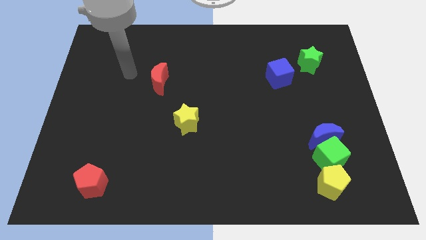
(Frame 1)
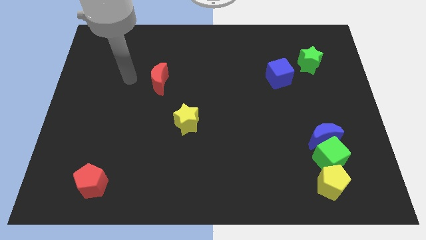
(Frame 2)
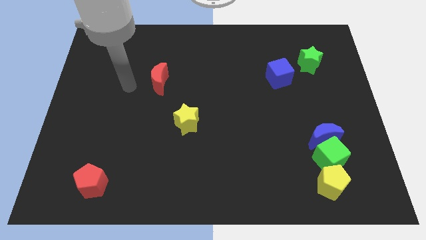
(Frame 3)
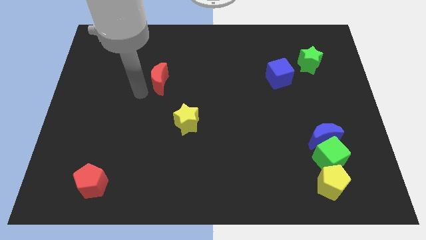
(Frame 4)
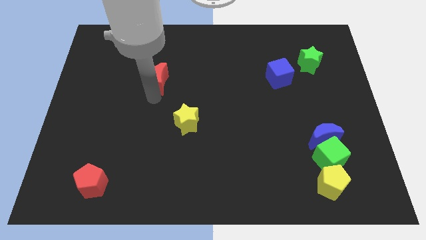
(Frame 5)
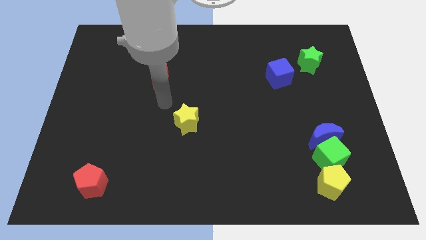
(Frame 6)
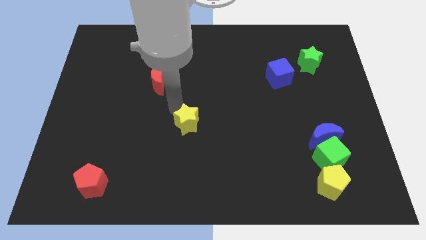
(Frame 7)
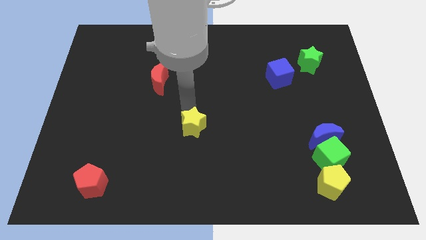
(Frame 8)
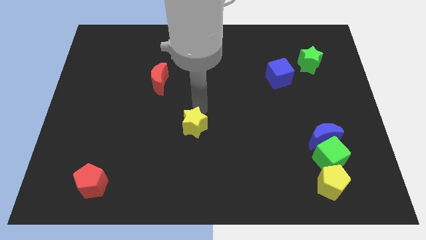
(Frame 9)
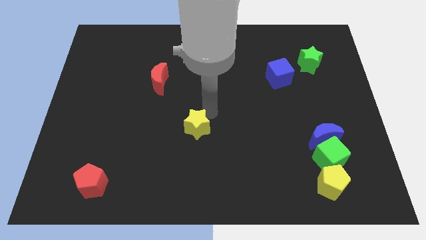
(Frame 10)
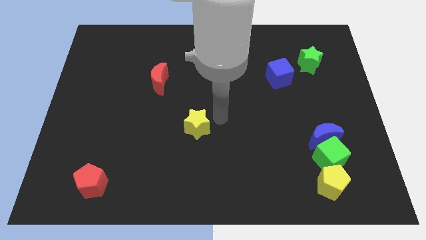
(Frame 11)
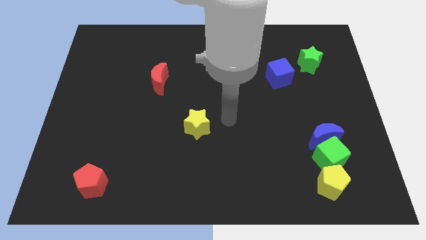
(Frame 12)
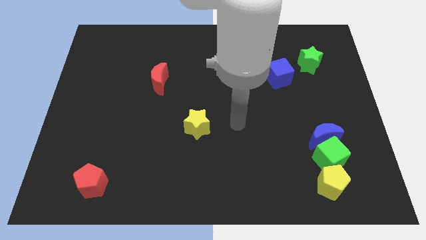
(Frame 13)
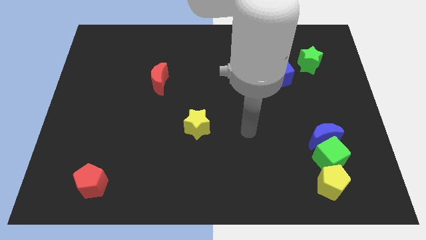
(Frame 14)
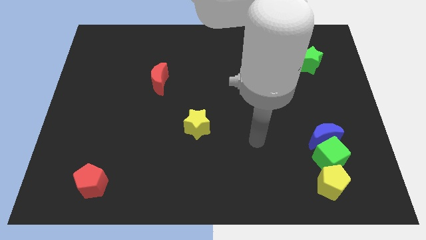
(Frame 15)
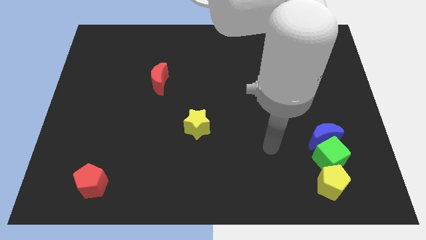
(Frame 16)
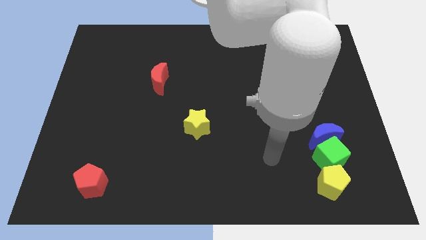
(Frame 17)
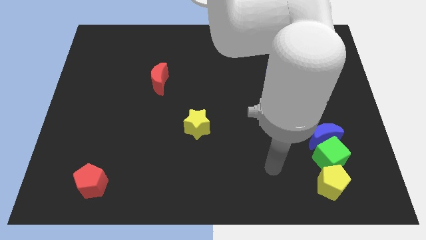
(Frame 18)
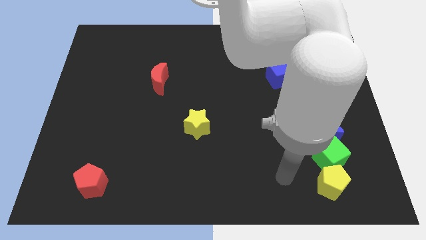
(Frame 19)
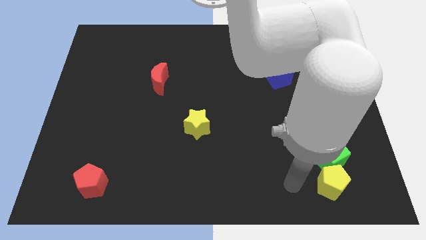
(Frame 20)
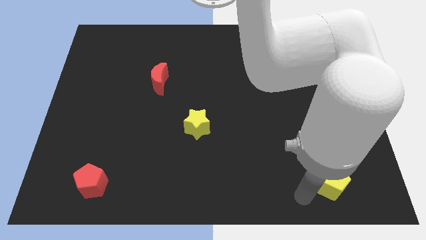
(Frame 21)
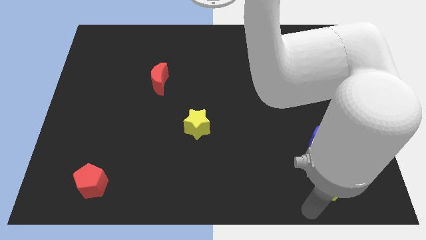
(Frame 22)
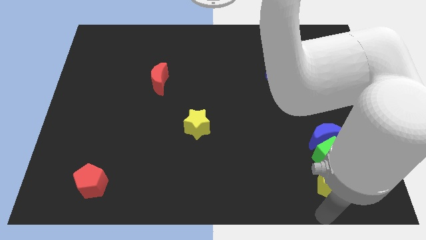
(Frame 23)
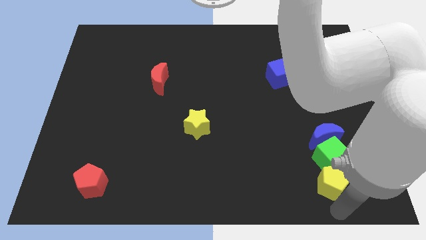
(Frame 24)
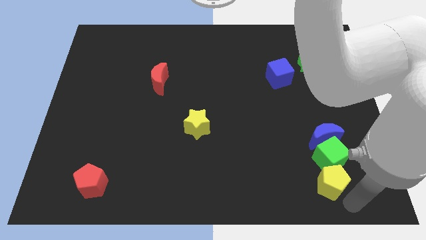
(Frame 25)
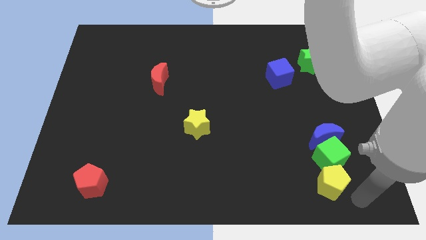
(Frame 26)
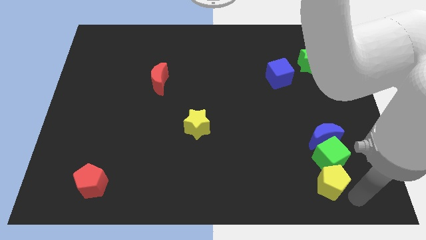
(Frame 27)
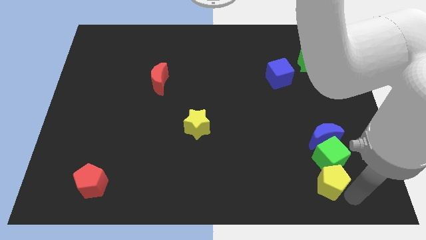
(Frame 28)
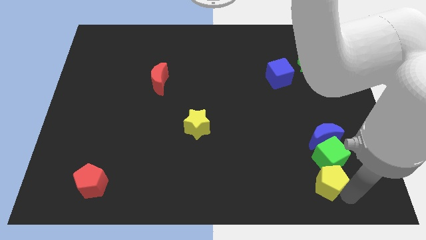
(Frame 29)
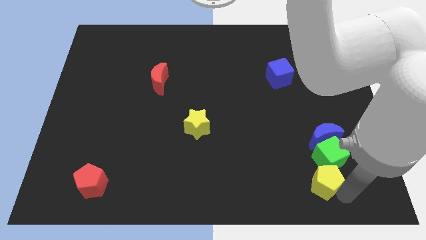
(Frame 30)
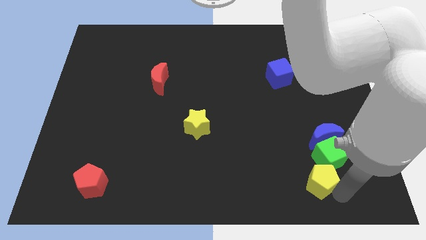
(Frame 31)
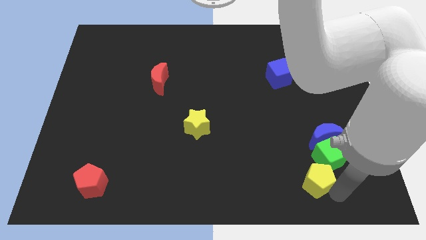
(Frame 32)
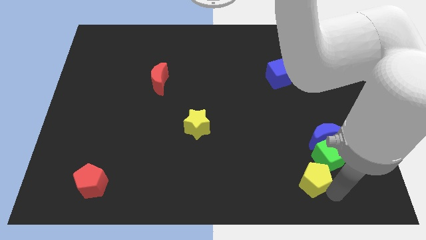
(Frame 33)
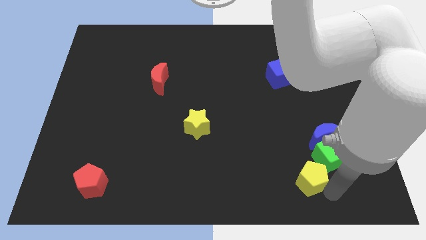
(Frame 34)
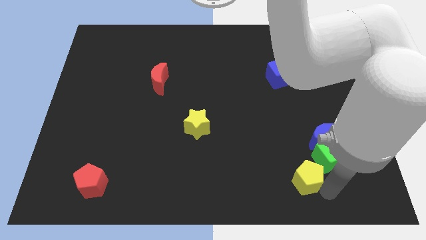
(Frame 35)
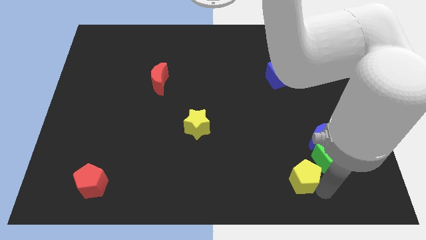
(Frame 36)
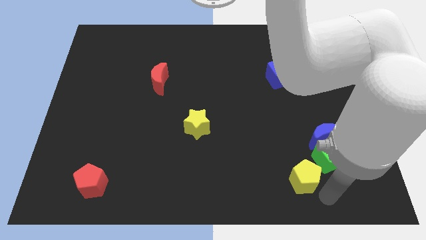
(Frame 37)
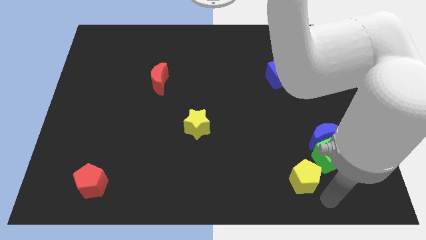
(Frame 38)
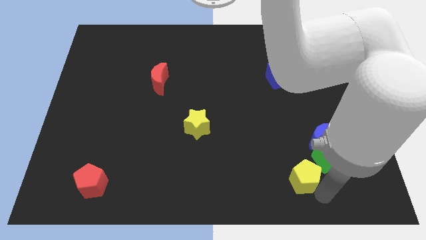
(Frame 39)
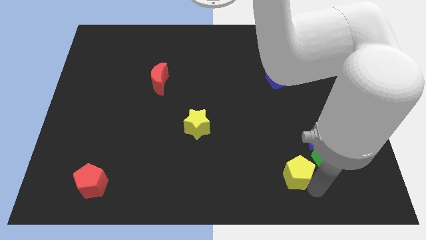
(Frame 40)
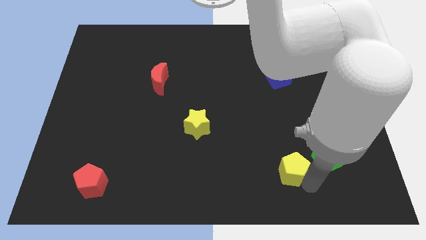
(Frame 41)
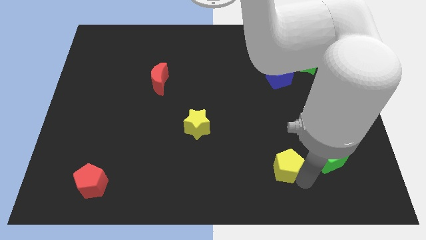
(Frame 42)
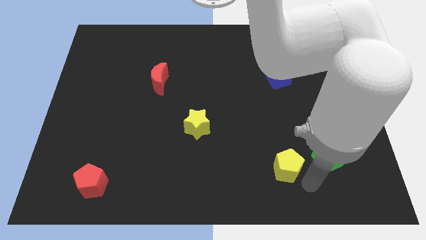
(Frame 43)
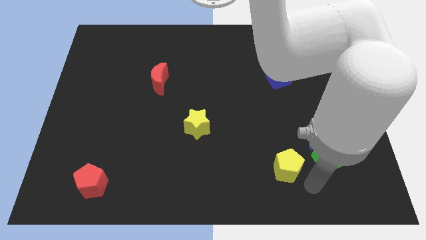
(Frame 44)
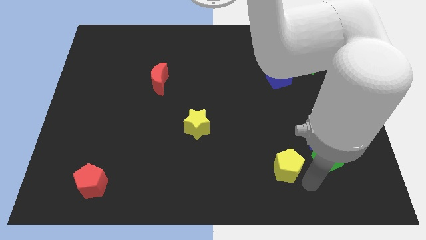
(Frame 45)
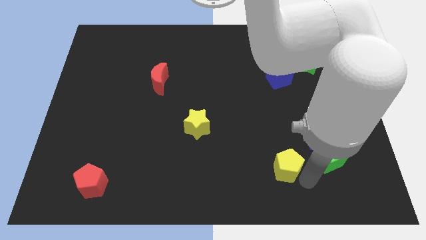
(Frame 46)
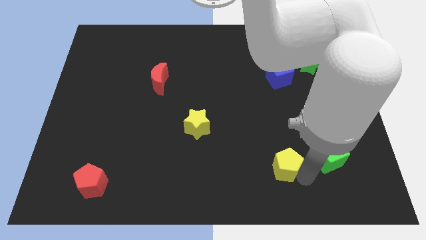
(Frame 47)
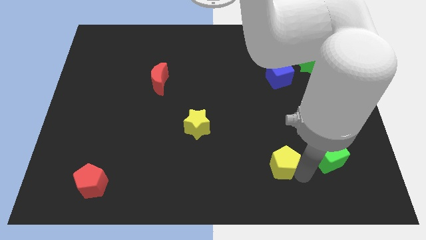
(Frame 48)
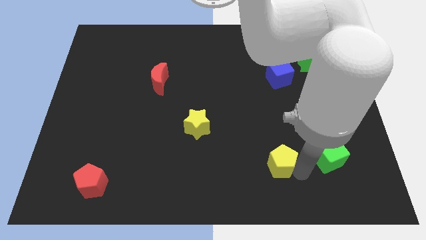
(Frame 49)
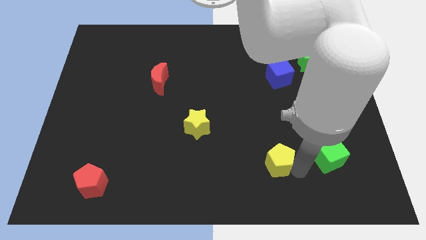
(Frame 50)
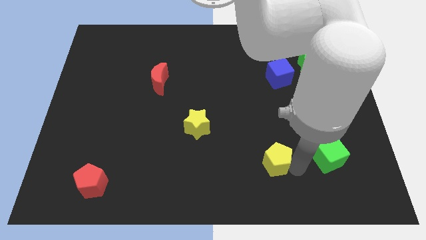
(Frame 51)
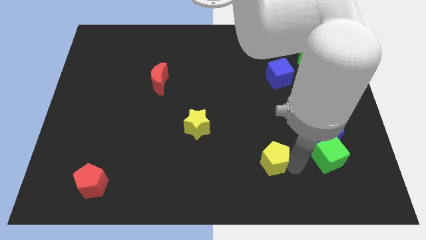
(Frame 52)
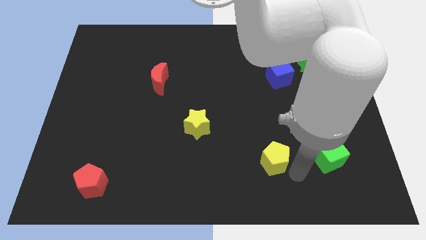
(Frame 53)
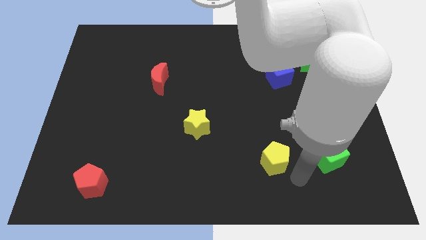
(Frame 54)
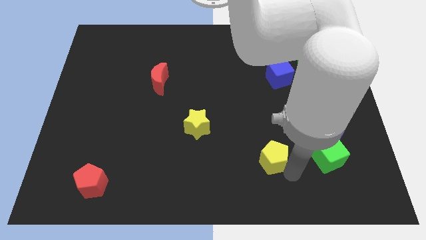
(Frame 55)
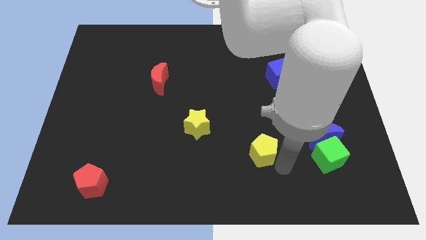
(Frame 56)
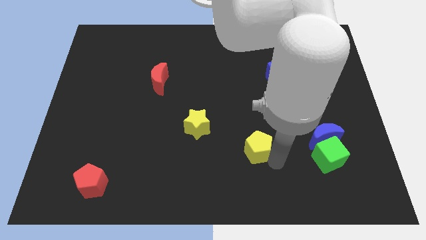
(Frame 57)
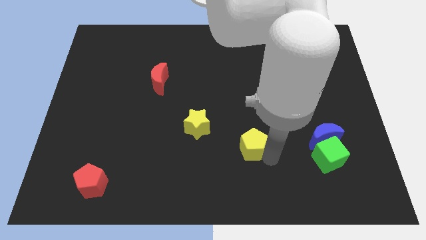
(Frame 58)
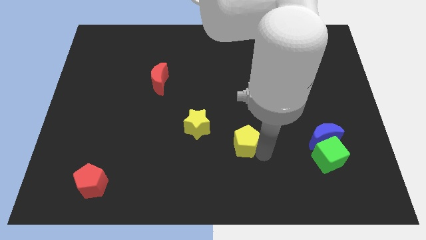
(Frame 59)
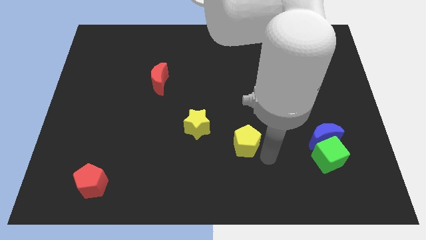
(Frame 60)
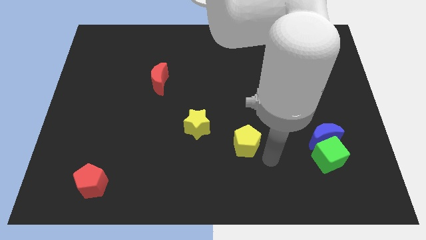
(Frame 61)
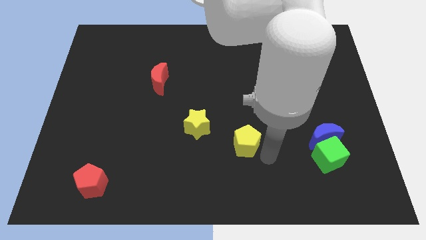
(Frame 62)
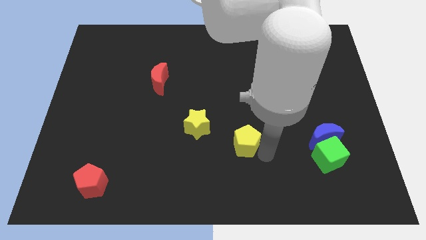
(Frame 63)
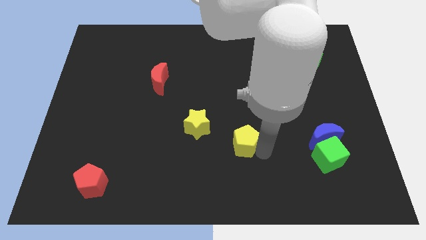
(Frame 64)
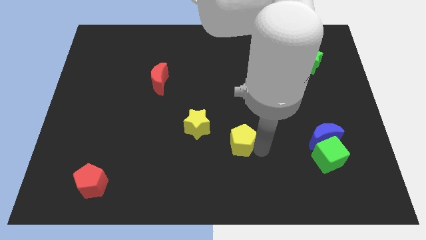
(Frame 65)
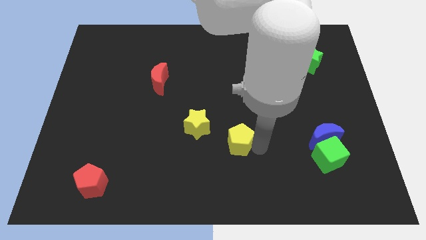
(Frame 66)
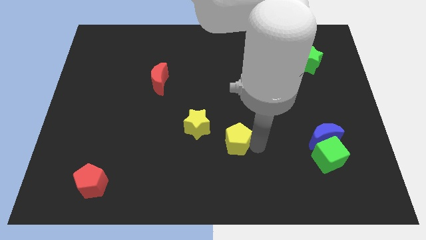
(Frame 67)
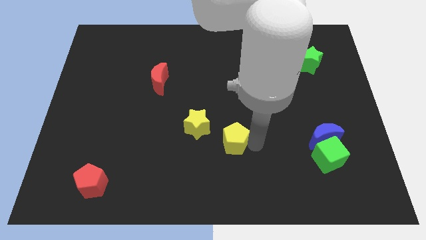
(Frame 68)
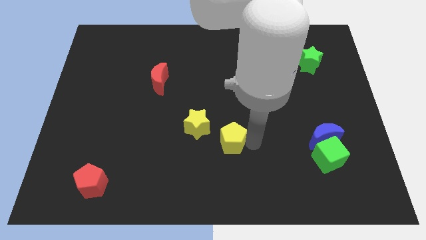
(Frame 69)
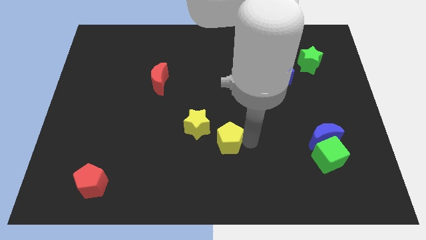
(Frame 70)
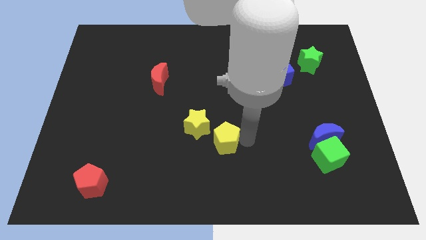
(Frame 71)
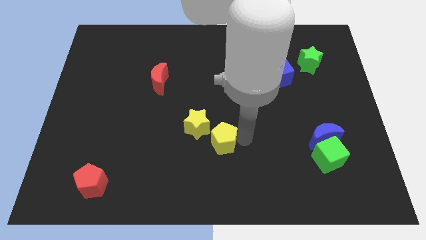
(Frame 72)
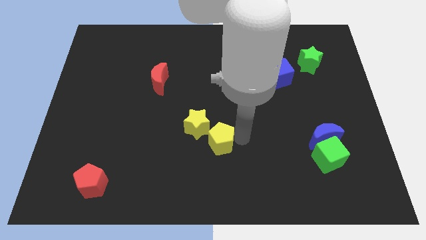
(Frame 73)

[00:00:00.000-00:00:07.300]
push the yellow pentagon to the yellow star
